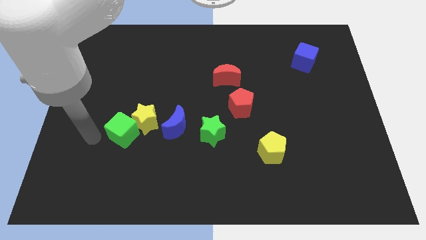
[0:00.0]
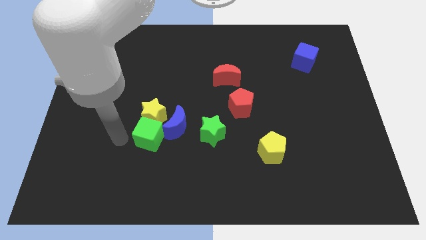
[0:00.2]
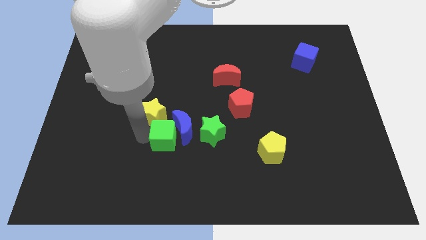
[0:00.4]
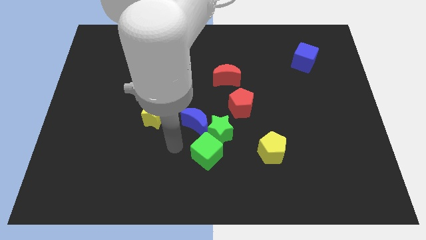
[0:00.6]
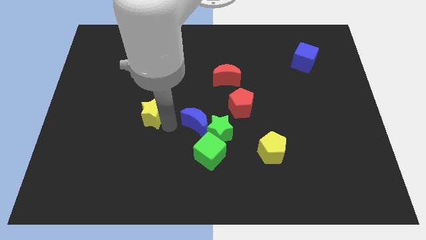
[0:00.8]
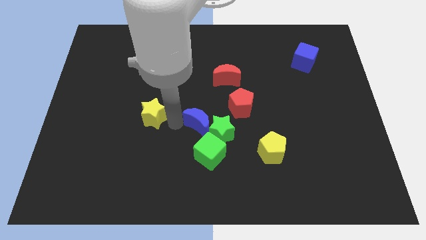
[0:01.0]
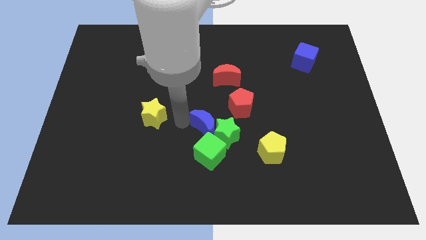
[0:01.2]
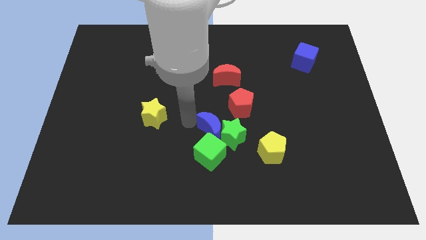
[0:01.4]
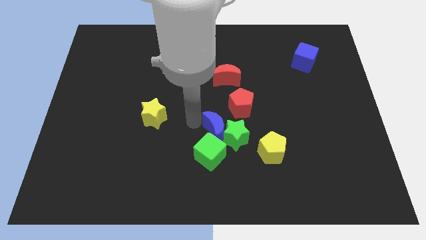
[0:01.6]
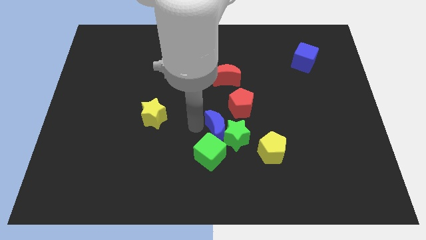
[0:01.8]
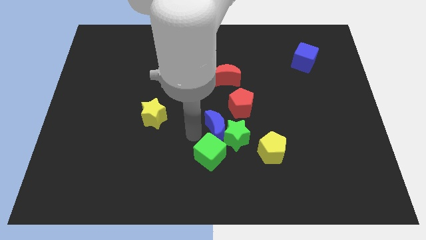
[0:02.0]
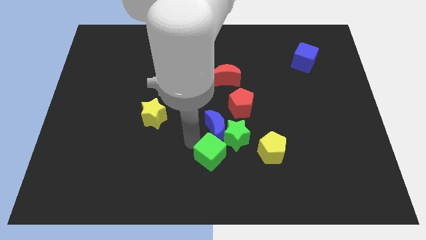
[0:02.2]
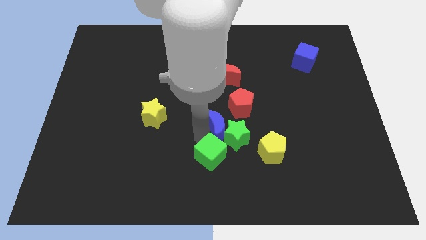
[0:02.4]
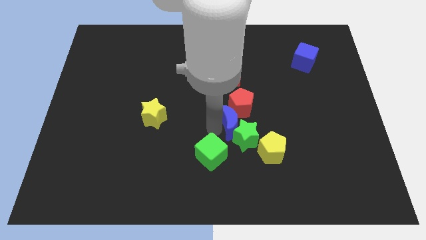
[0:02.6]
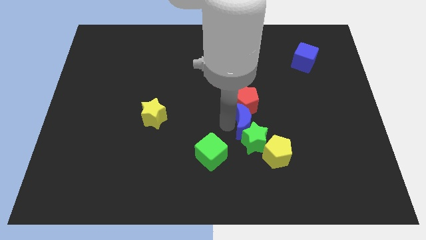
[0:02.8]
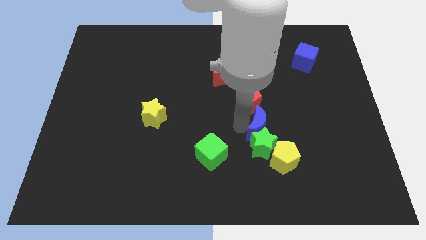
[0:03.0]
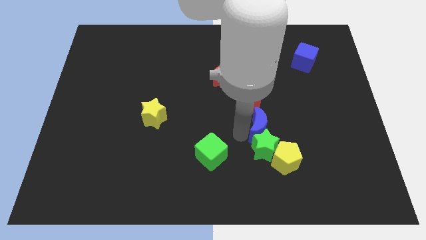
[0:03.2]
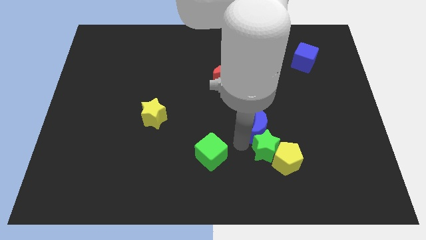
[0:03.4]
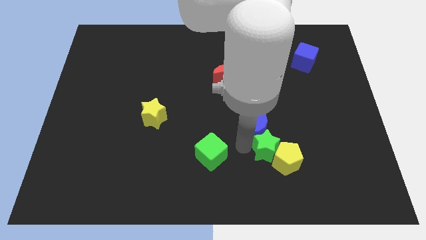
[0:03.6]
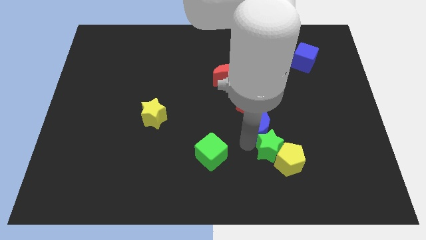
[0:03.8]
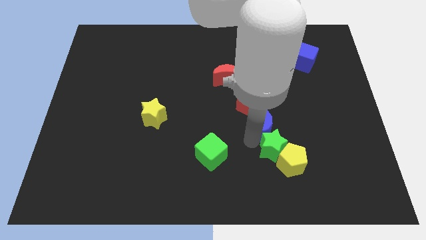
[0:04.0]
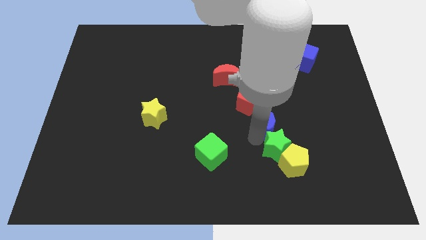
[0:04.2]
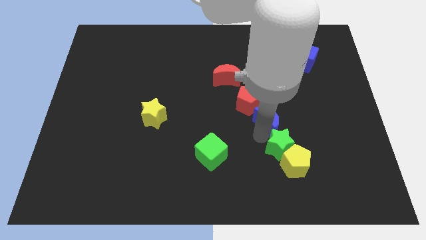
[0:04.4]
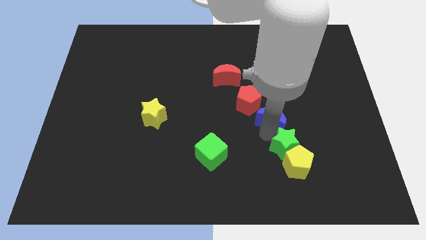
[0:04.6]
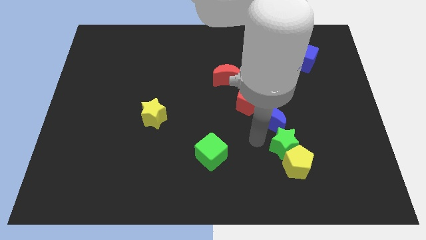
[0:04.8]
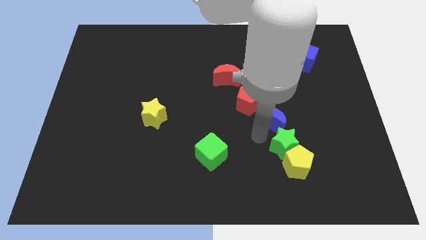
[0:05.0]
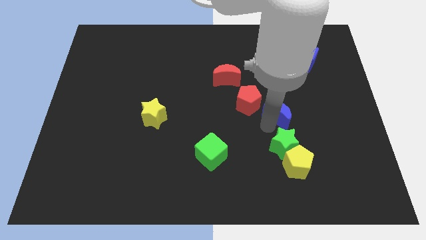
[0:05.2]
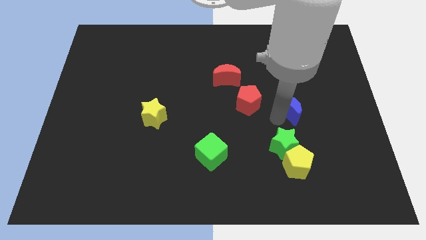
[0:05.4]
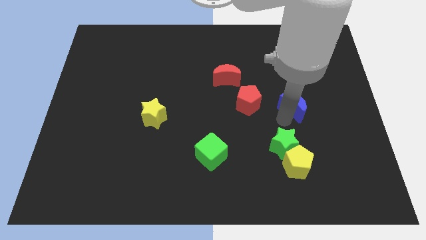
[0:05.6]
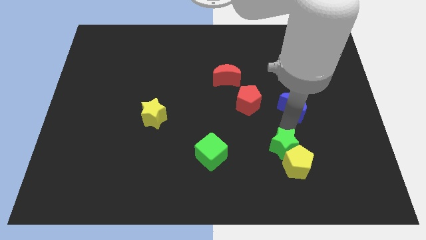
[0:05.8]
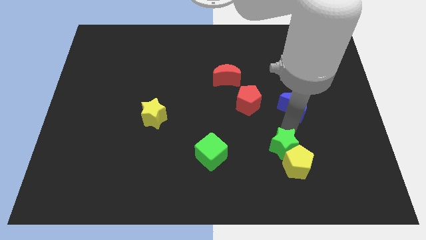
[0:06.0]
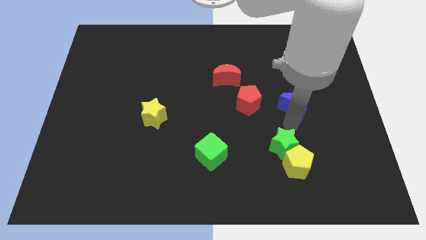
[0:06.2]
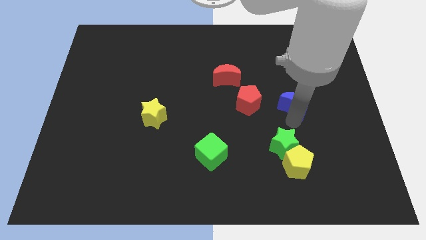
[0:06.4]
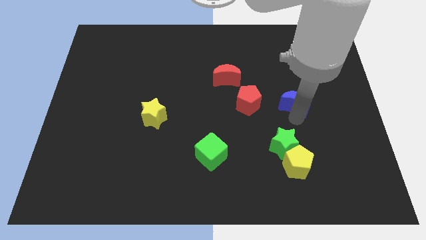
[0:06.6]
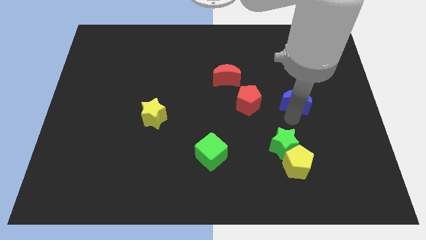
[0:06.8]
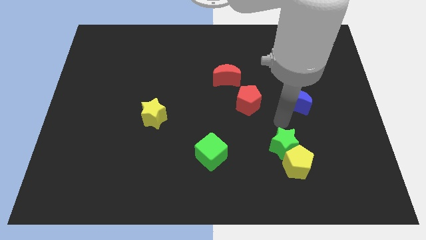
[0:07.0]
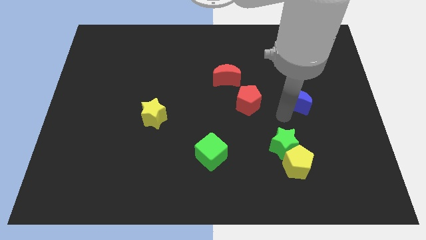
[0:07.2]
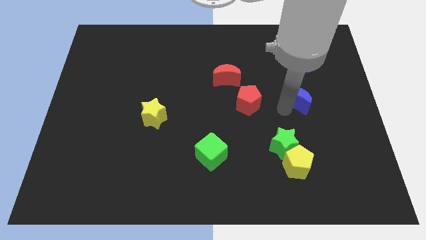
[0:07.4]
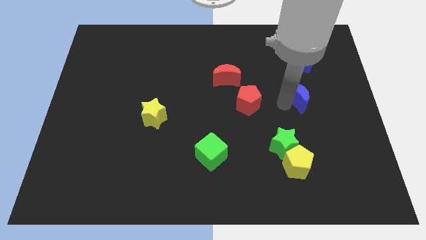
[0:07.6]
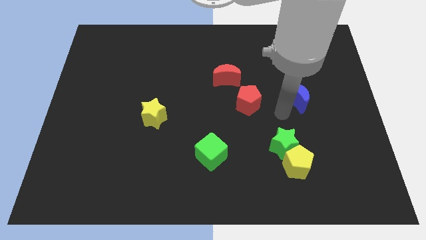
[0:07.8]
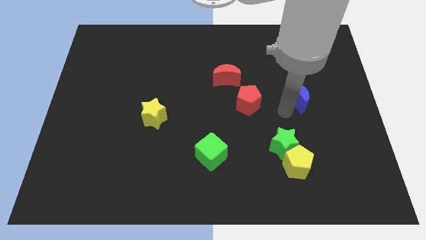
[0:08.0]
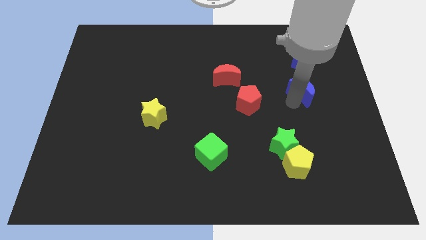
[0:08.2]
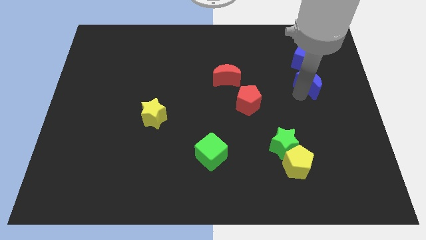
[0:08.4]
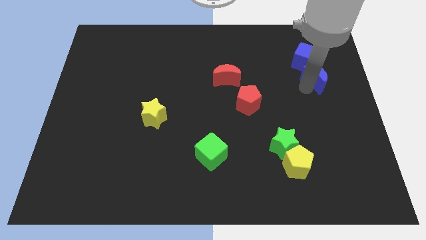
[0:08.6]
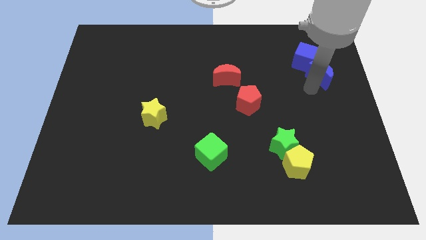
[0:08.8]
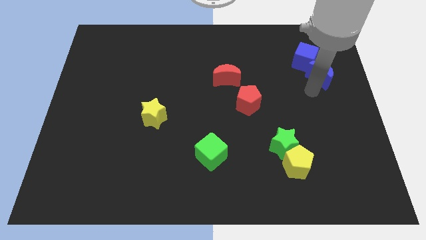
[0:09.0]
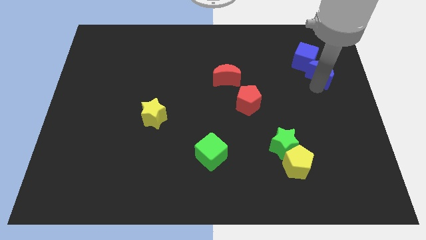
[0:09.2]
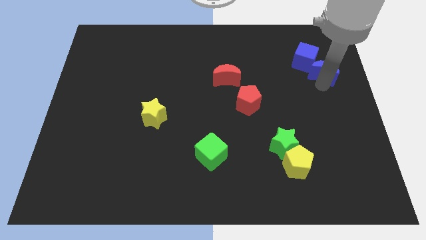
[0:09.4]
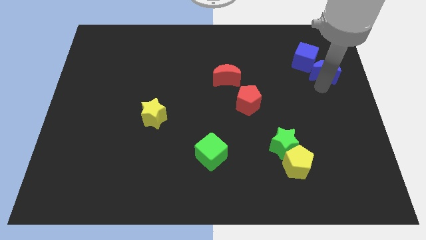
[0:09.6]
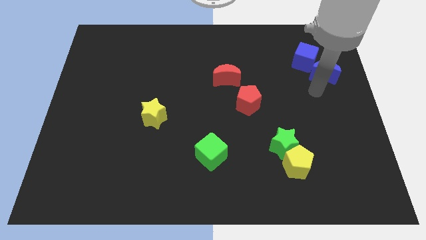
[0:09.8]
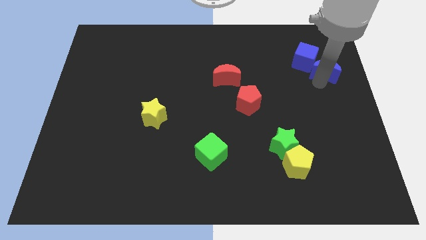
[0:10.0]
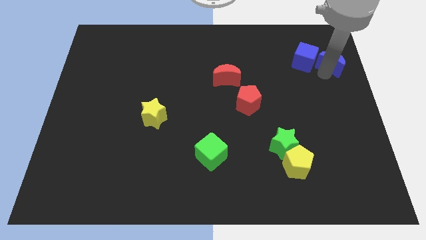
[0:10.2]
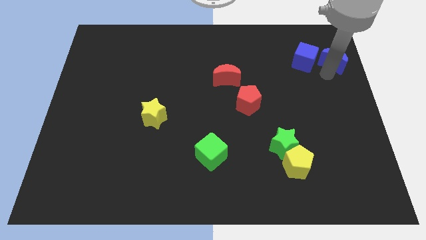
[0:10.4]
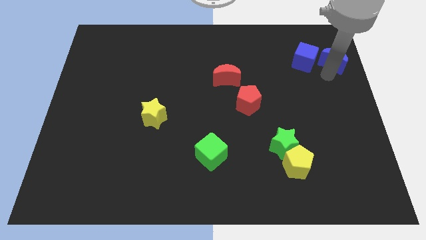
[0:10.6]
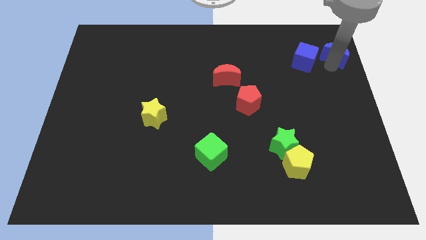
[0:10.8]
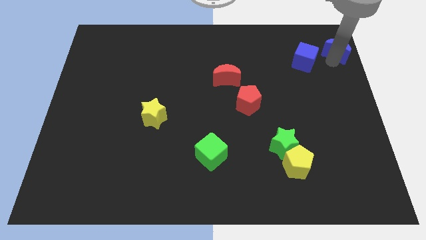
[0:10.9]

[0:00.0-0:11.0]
put the blue moon to the top right corner

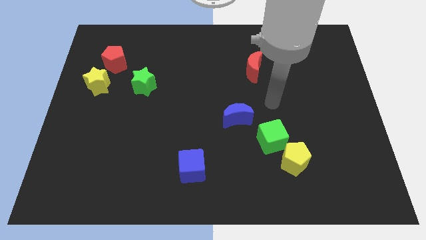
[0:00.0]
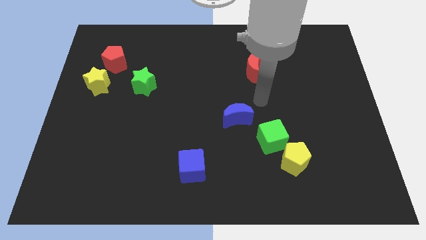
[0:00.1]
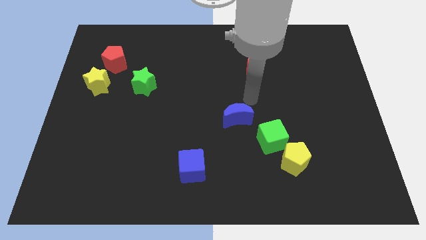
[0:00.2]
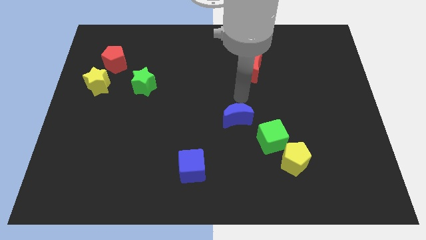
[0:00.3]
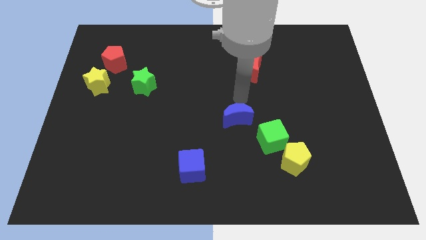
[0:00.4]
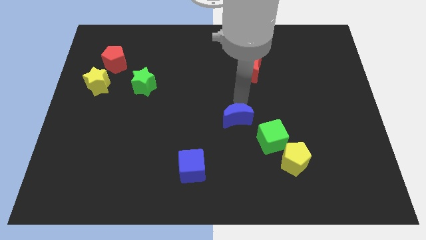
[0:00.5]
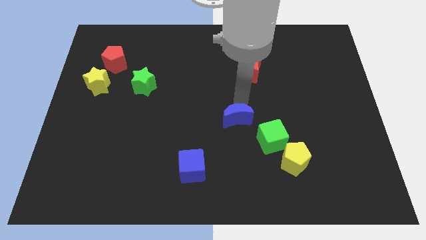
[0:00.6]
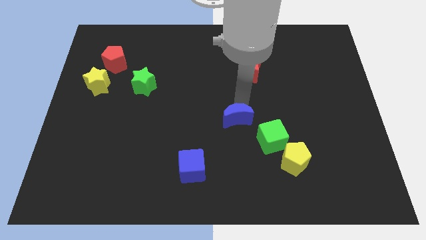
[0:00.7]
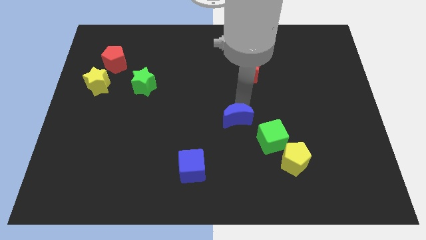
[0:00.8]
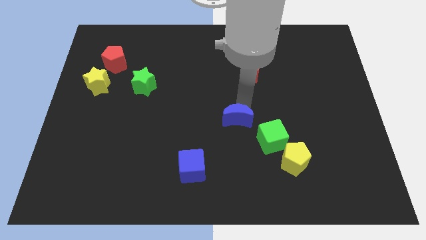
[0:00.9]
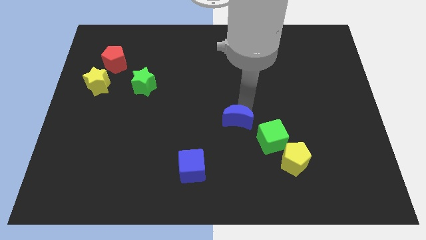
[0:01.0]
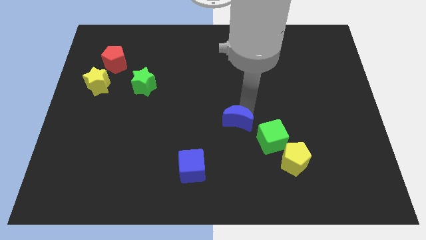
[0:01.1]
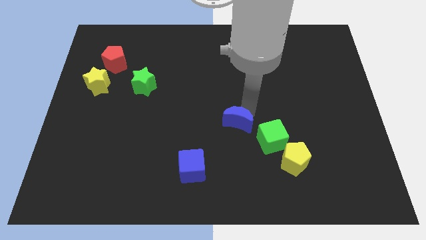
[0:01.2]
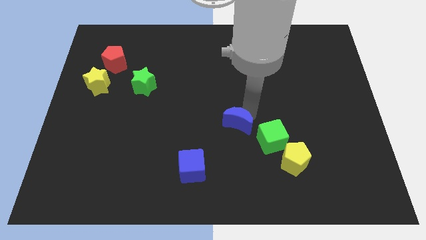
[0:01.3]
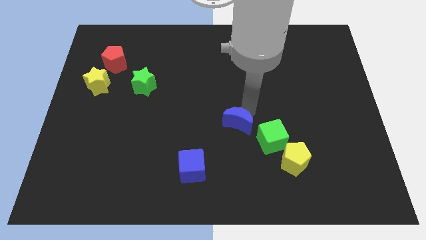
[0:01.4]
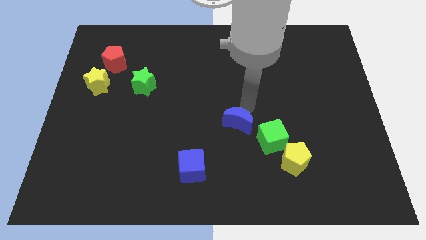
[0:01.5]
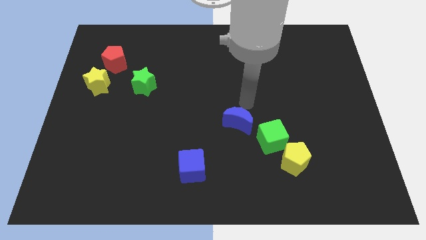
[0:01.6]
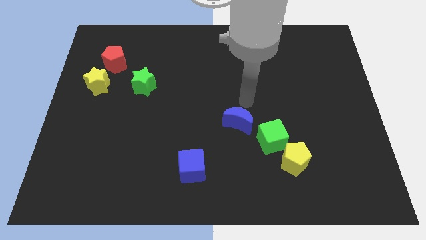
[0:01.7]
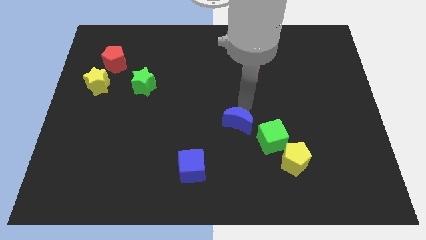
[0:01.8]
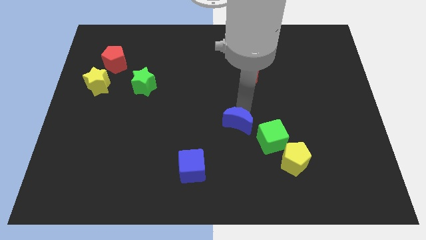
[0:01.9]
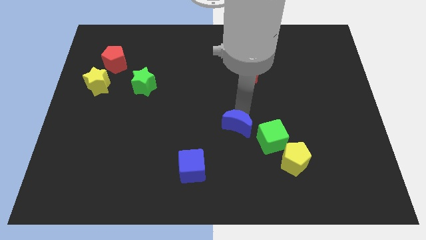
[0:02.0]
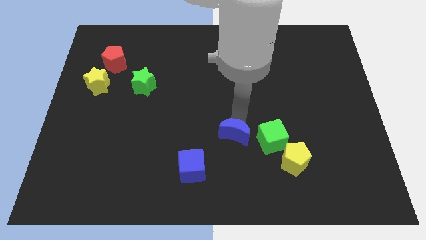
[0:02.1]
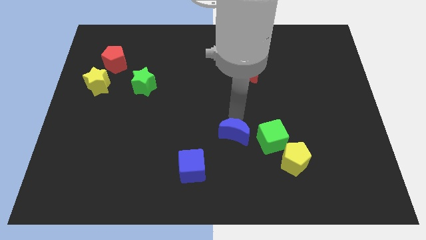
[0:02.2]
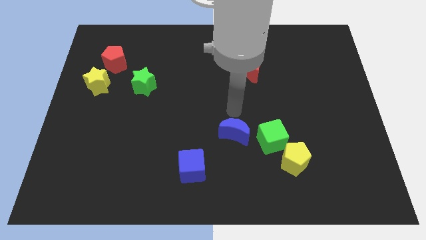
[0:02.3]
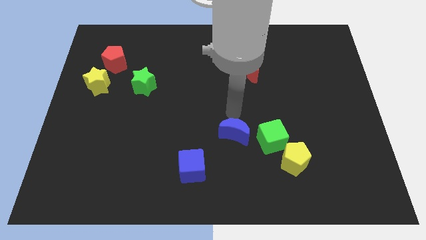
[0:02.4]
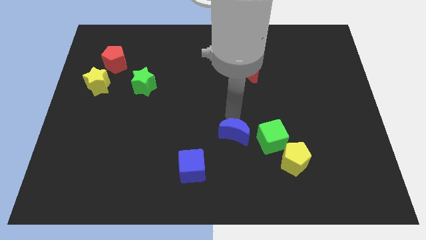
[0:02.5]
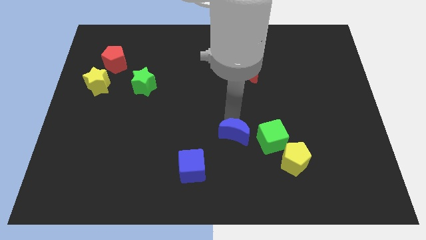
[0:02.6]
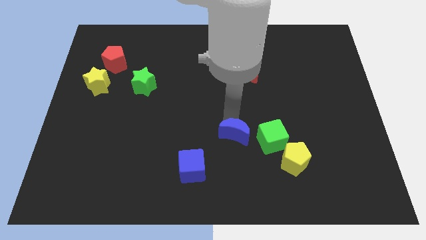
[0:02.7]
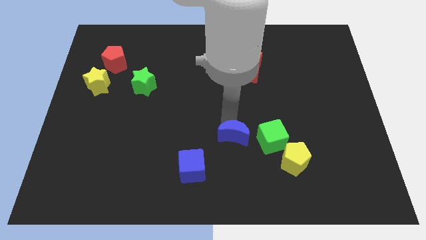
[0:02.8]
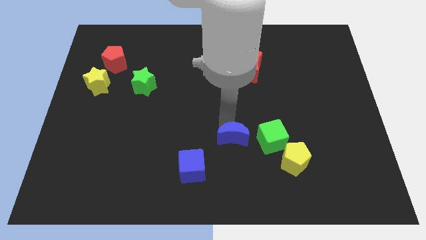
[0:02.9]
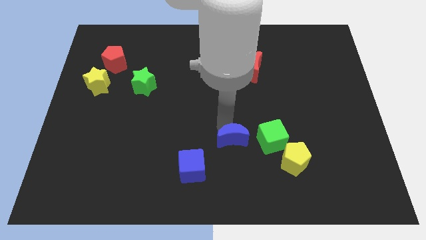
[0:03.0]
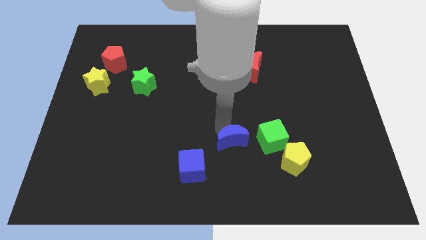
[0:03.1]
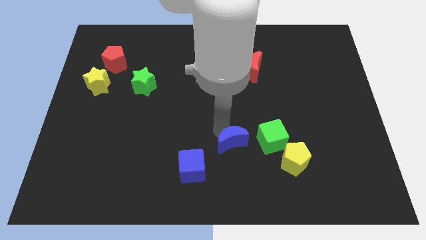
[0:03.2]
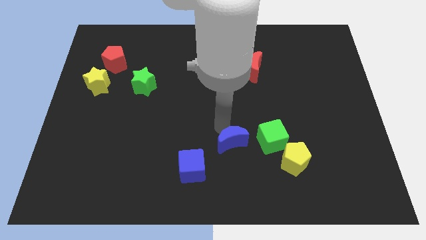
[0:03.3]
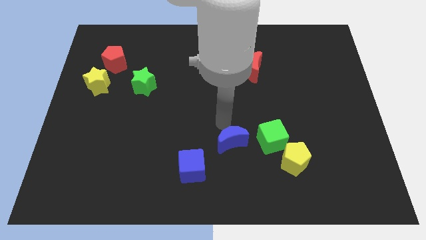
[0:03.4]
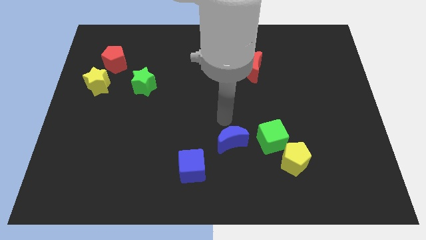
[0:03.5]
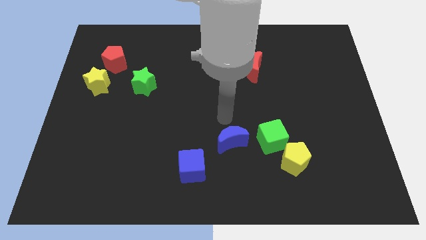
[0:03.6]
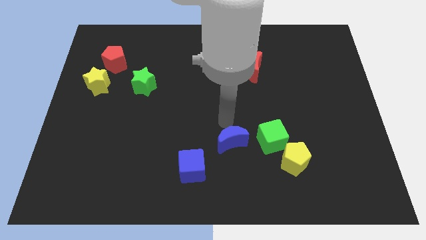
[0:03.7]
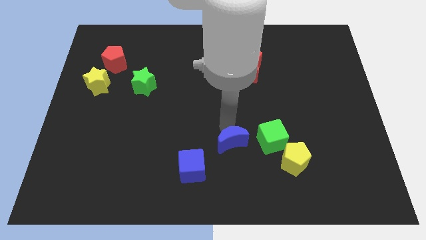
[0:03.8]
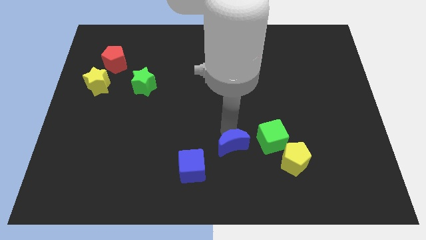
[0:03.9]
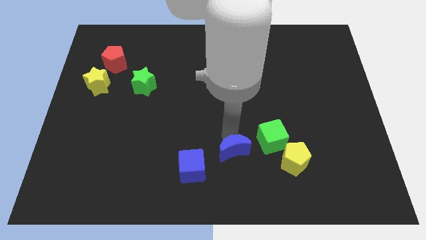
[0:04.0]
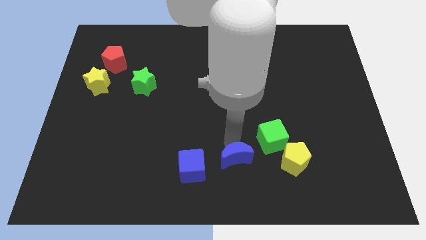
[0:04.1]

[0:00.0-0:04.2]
put the blue moon to the bottom
